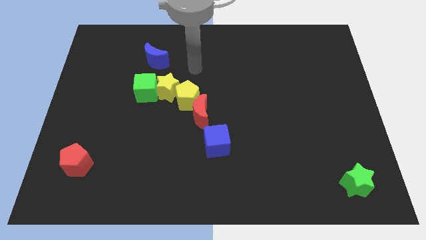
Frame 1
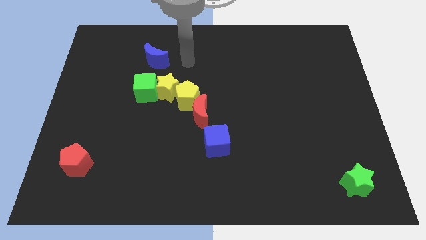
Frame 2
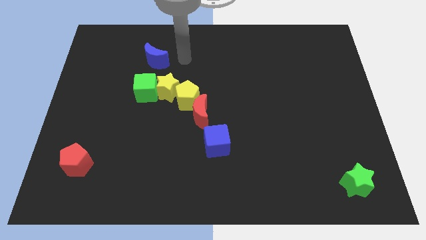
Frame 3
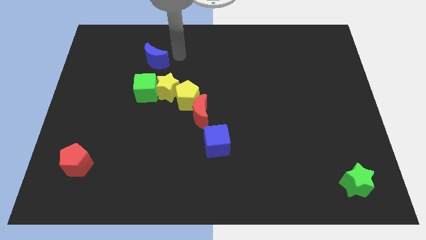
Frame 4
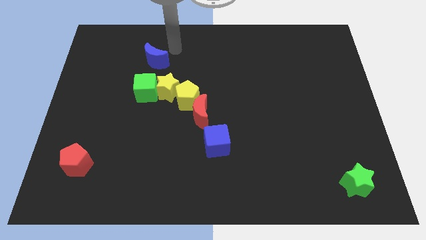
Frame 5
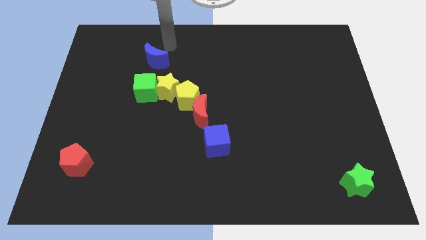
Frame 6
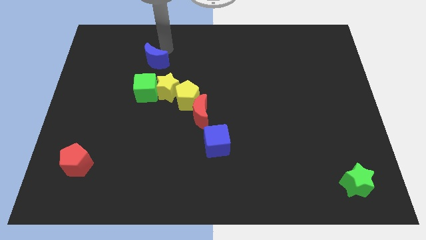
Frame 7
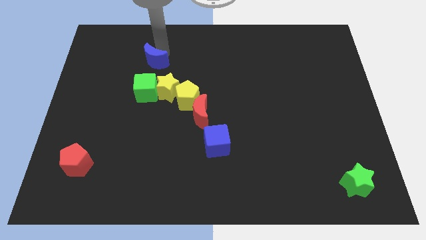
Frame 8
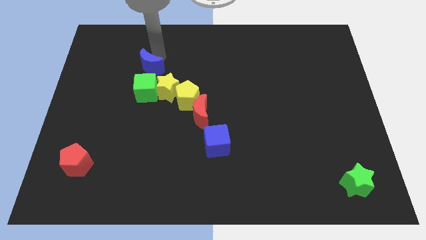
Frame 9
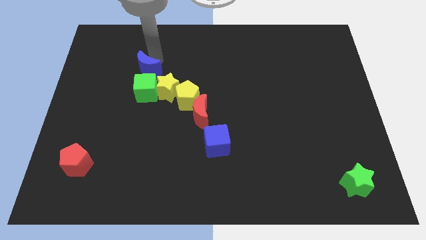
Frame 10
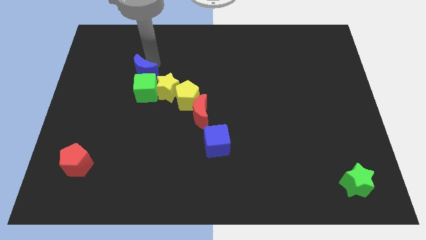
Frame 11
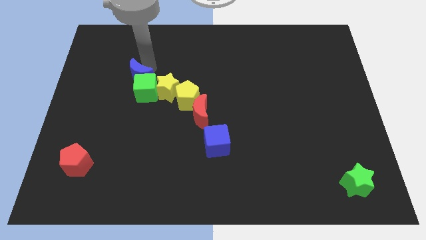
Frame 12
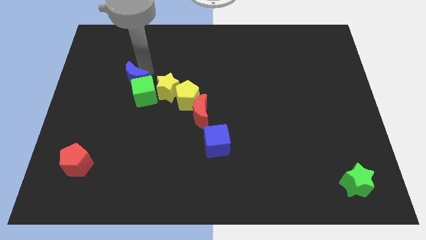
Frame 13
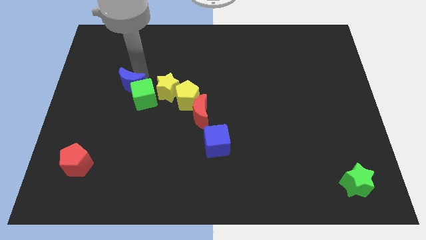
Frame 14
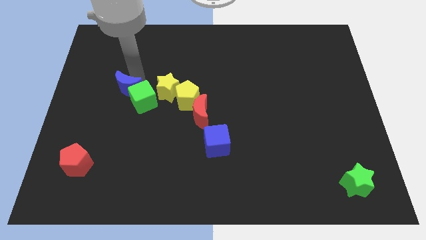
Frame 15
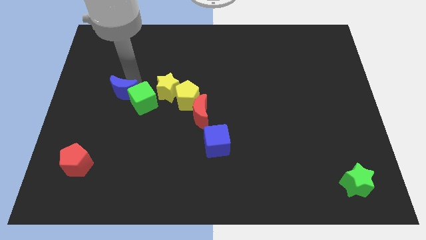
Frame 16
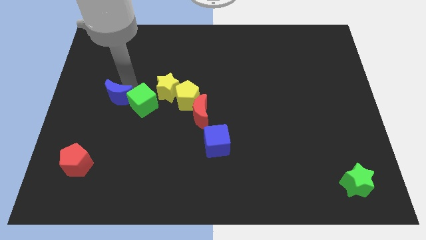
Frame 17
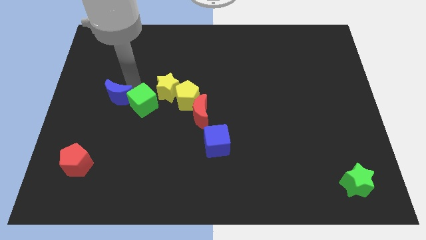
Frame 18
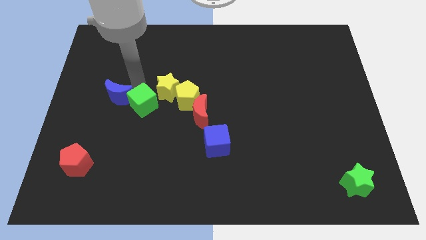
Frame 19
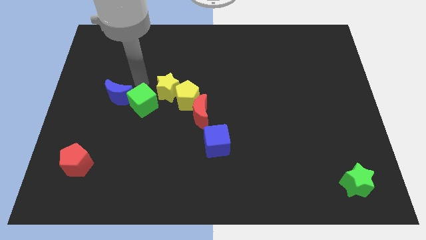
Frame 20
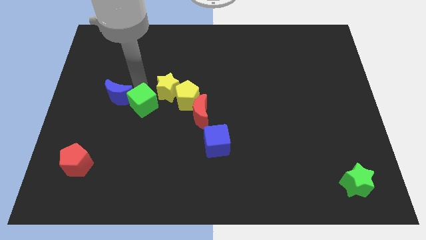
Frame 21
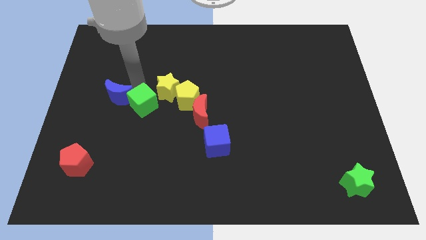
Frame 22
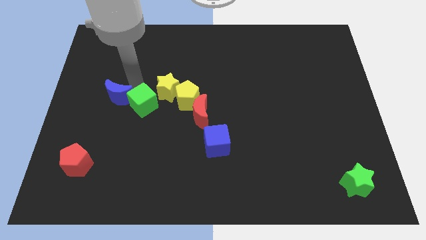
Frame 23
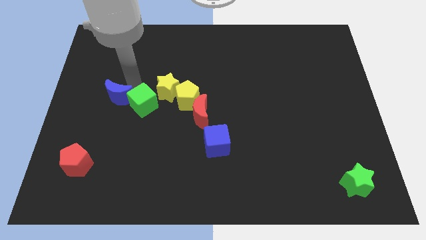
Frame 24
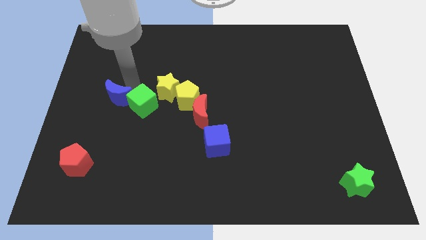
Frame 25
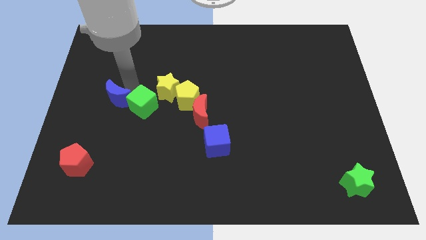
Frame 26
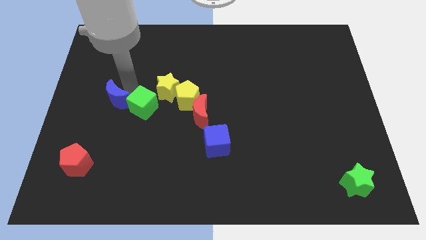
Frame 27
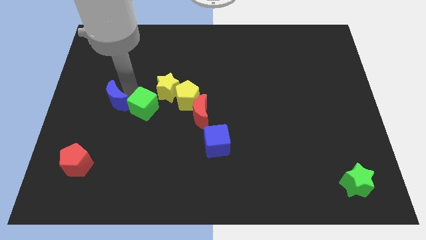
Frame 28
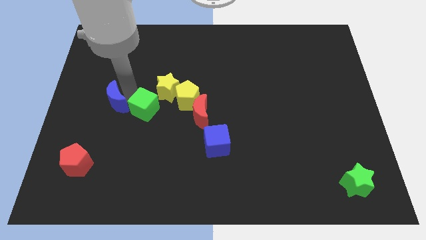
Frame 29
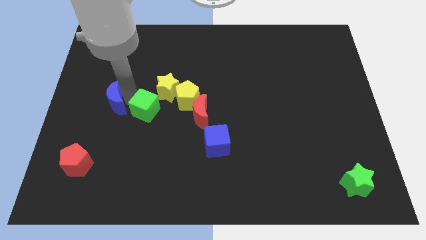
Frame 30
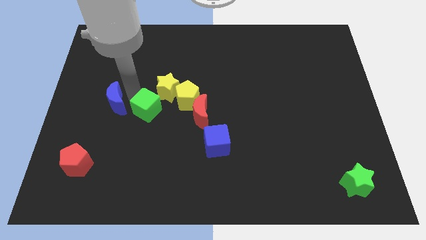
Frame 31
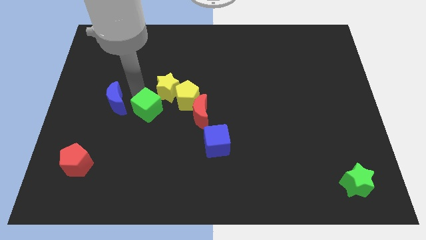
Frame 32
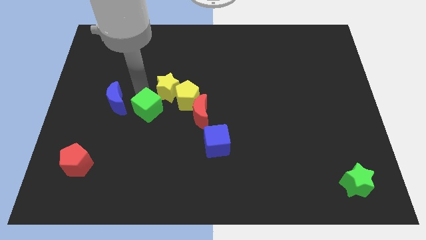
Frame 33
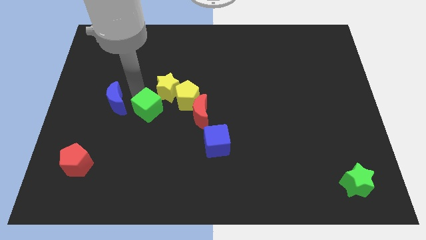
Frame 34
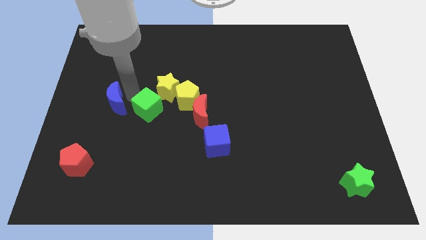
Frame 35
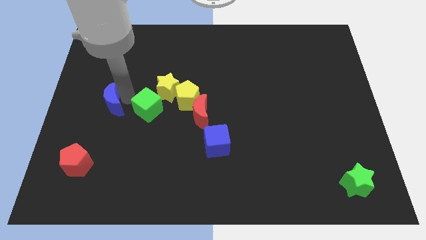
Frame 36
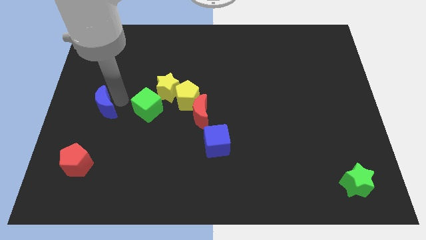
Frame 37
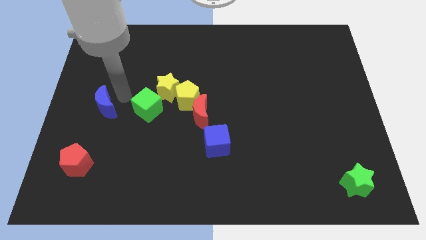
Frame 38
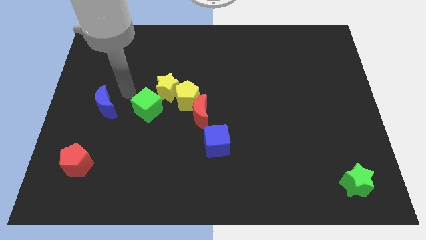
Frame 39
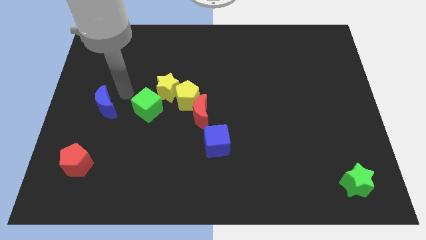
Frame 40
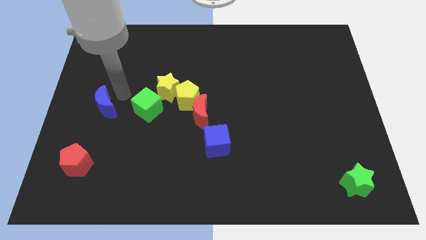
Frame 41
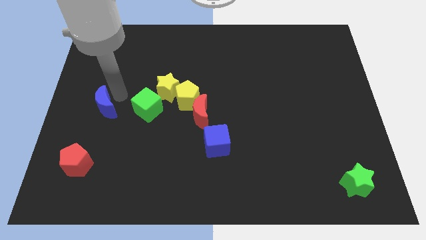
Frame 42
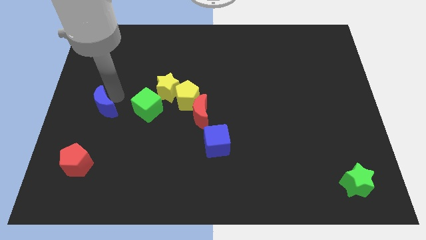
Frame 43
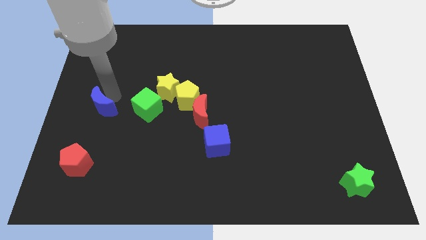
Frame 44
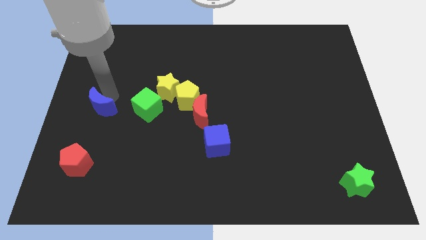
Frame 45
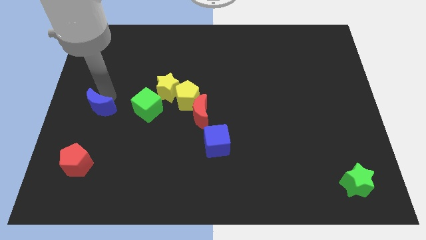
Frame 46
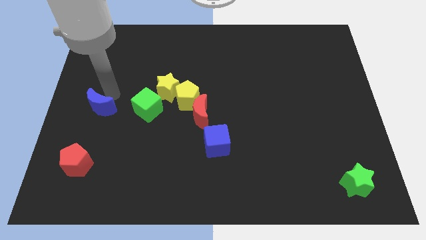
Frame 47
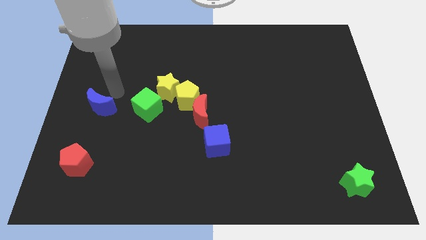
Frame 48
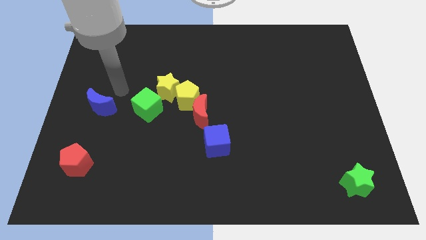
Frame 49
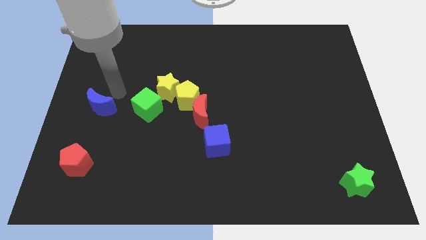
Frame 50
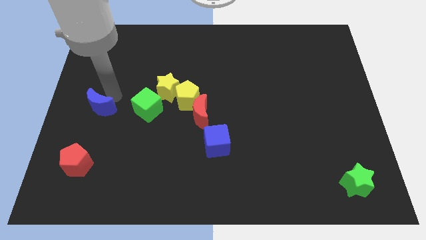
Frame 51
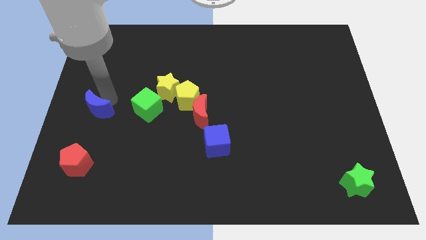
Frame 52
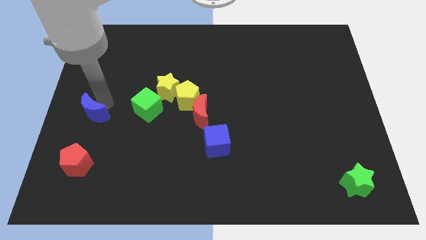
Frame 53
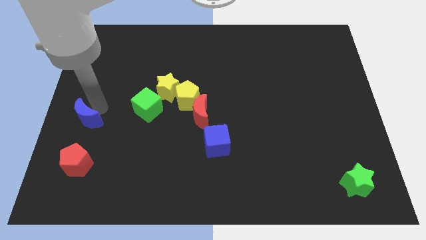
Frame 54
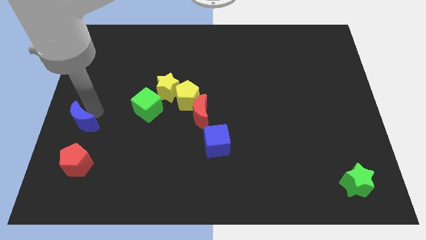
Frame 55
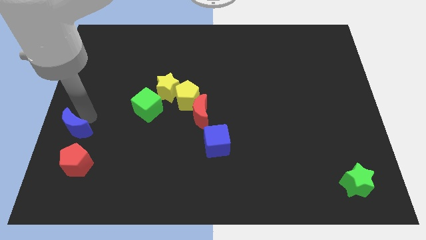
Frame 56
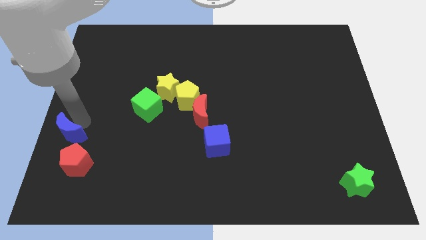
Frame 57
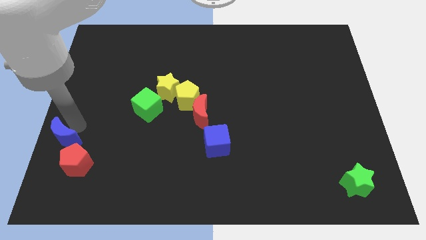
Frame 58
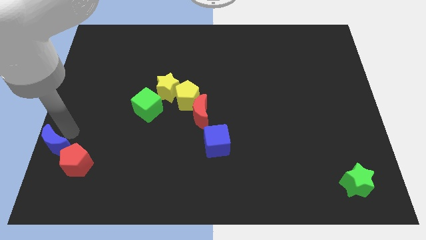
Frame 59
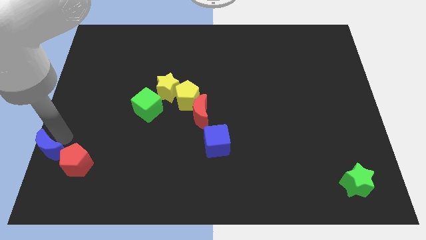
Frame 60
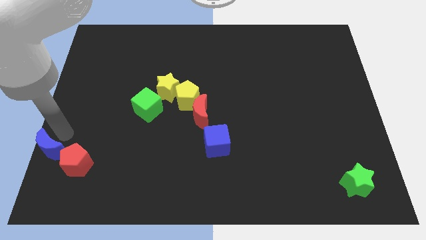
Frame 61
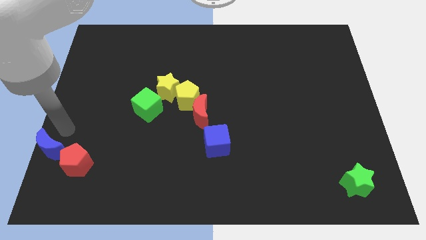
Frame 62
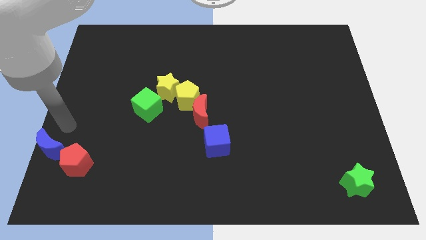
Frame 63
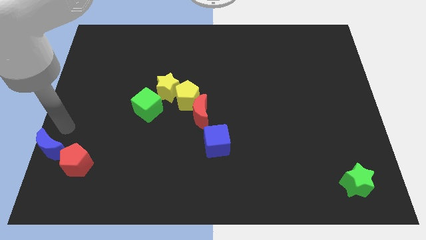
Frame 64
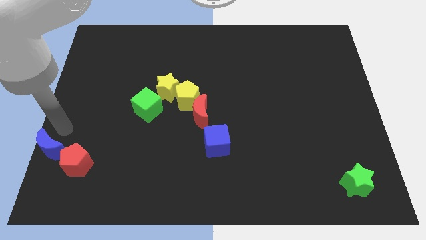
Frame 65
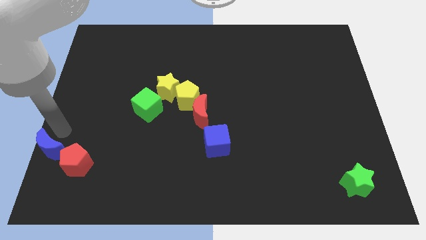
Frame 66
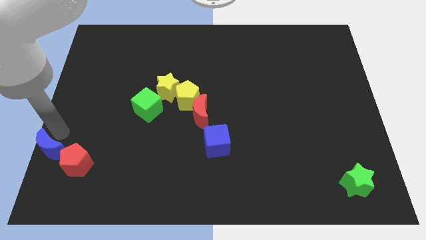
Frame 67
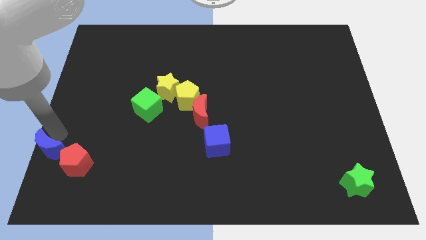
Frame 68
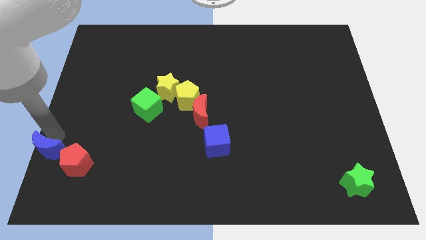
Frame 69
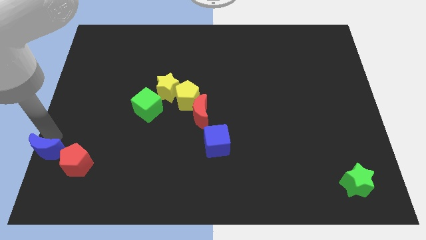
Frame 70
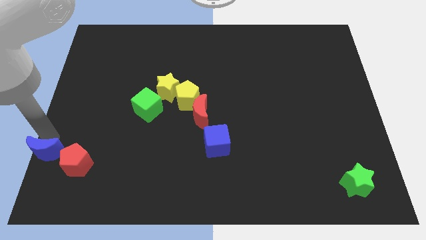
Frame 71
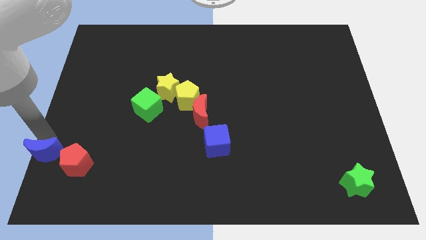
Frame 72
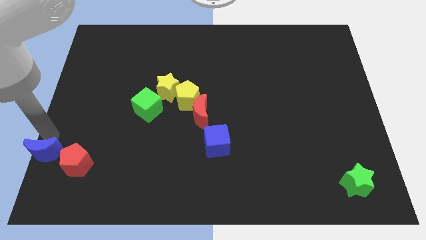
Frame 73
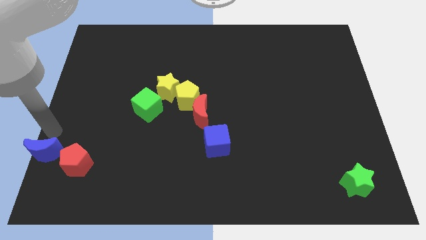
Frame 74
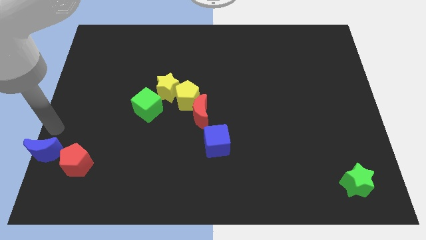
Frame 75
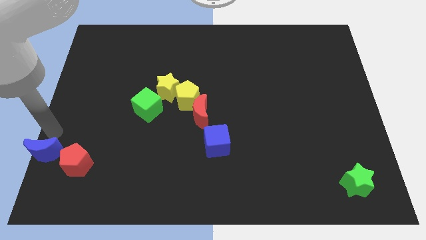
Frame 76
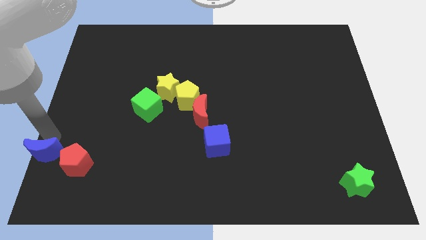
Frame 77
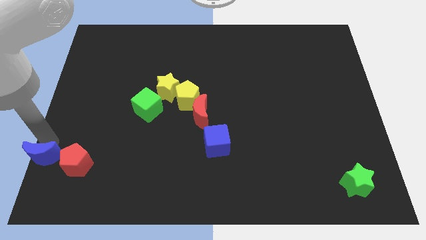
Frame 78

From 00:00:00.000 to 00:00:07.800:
put the blue moon to the bottom left corner
